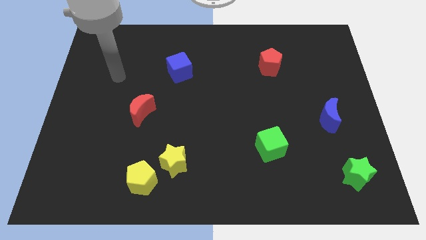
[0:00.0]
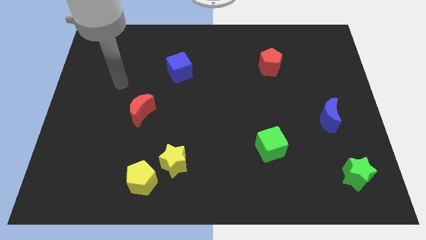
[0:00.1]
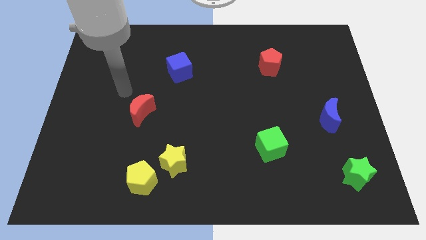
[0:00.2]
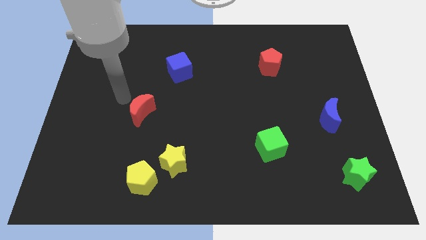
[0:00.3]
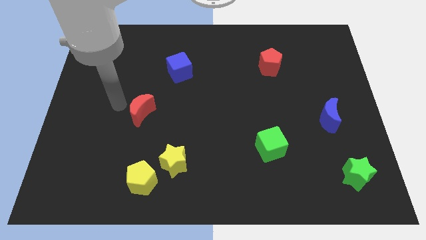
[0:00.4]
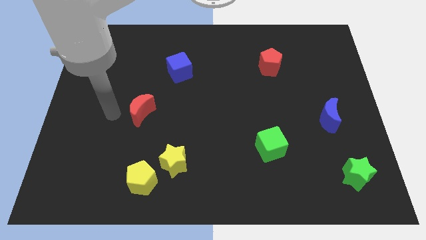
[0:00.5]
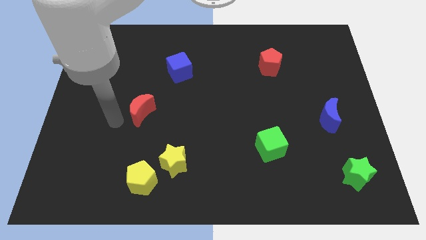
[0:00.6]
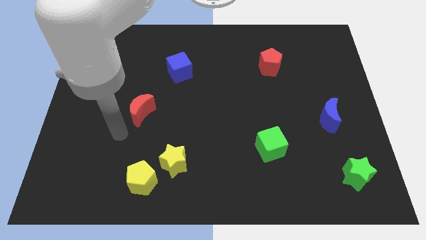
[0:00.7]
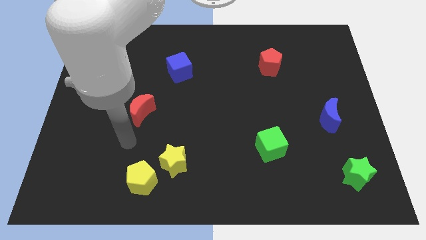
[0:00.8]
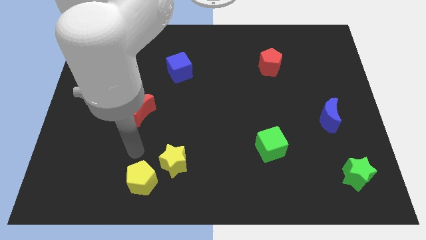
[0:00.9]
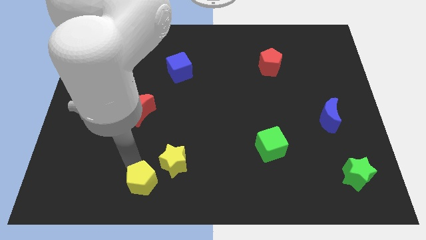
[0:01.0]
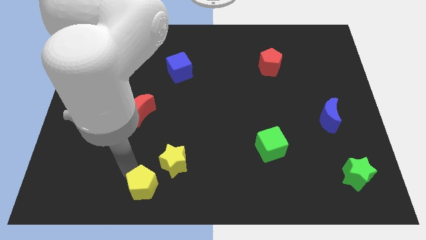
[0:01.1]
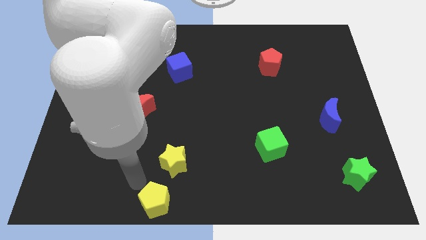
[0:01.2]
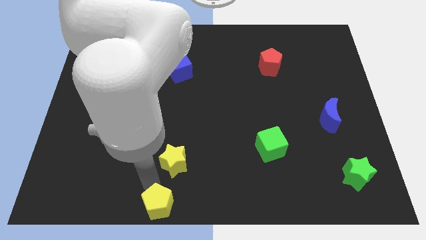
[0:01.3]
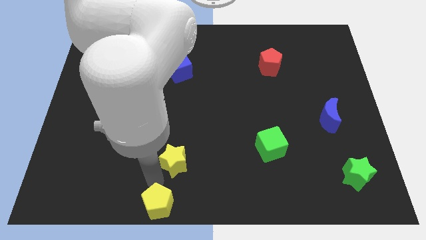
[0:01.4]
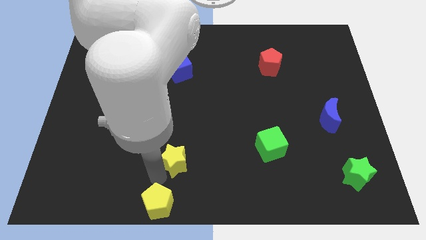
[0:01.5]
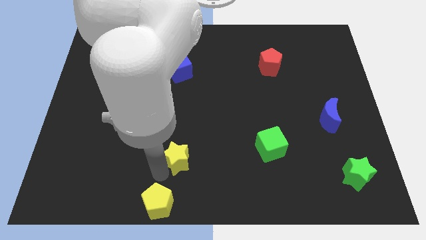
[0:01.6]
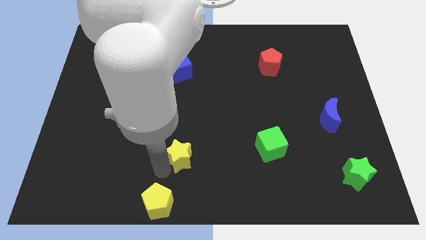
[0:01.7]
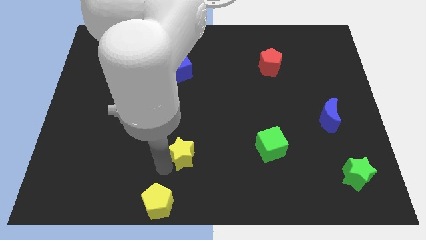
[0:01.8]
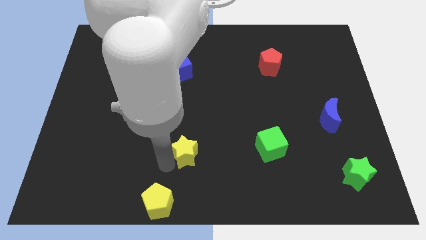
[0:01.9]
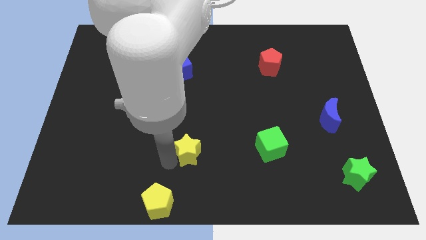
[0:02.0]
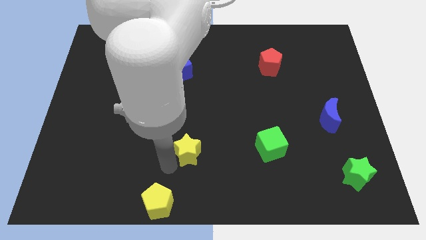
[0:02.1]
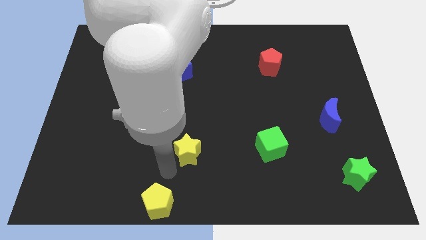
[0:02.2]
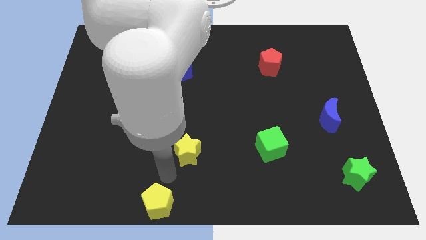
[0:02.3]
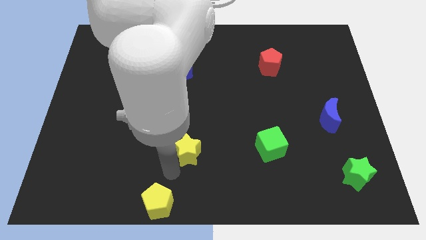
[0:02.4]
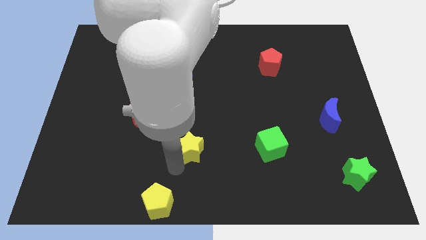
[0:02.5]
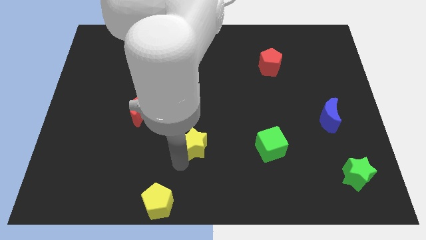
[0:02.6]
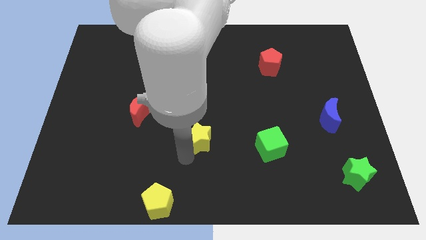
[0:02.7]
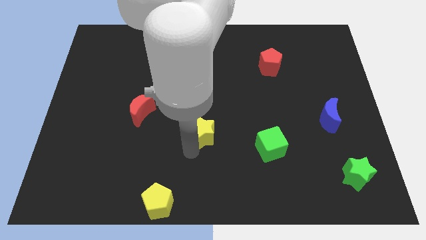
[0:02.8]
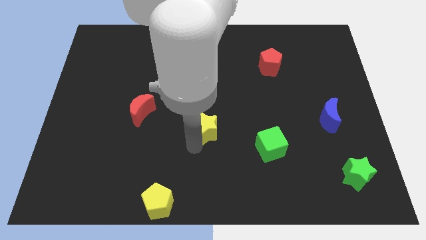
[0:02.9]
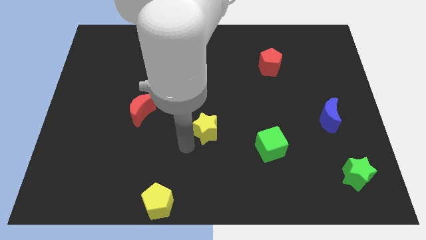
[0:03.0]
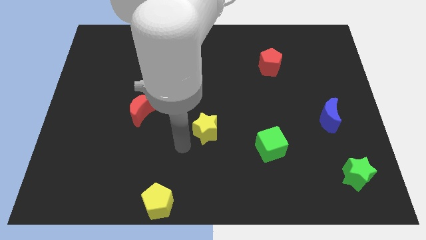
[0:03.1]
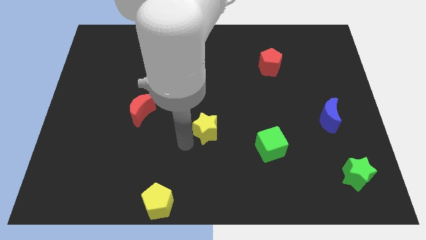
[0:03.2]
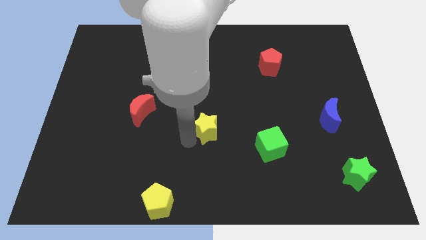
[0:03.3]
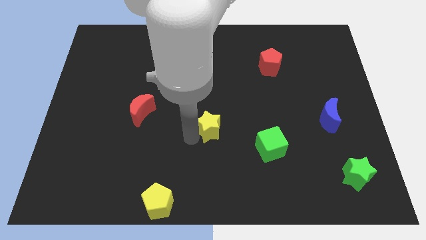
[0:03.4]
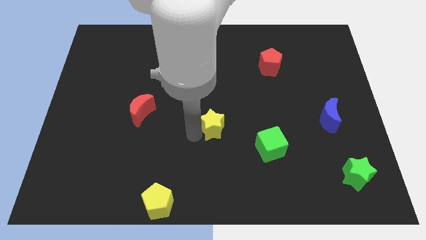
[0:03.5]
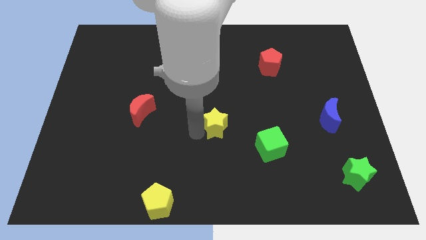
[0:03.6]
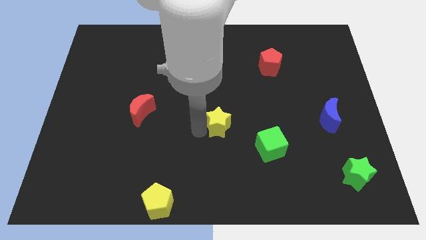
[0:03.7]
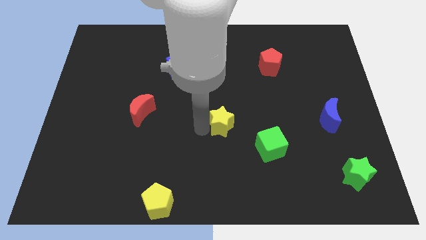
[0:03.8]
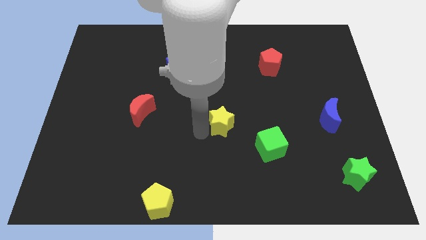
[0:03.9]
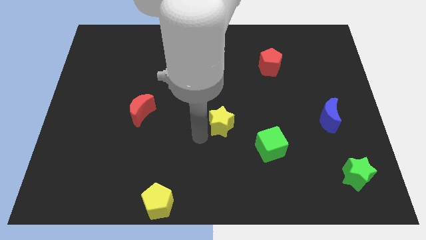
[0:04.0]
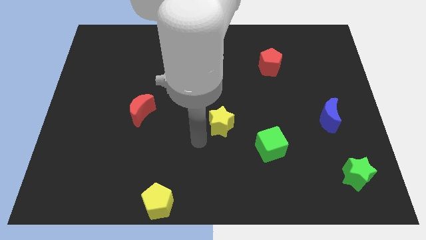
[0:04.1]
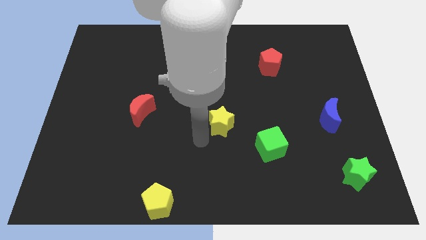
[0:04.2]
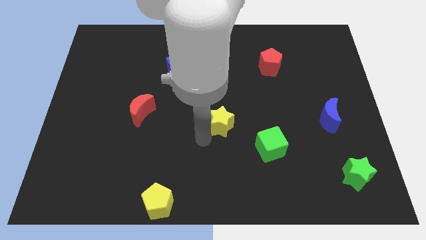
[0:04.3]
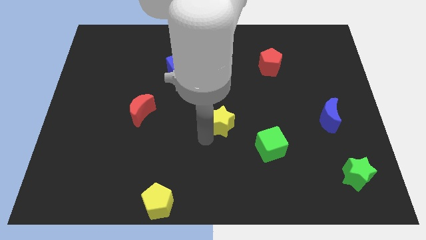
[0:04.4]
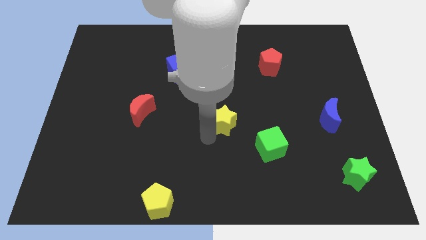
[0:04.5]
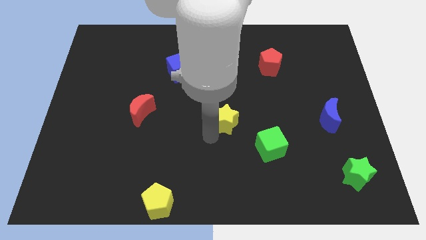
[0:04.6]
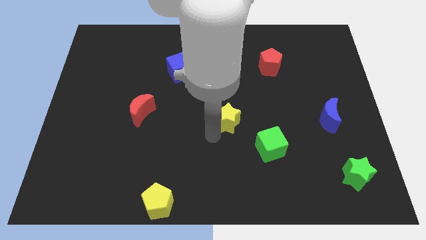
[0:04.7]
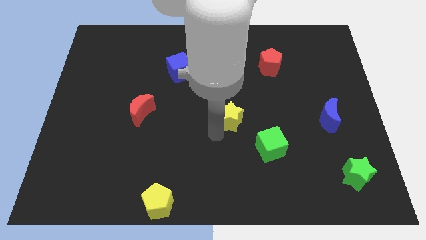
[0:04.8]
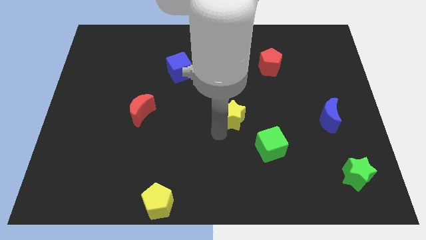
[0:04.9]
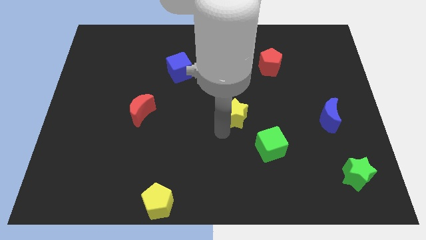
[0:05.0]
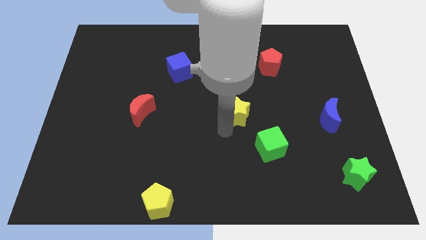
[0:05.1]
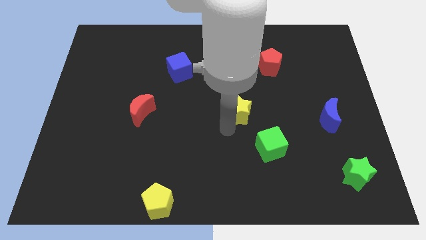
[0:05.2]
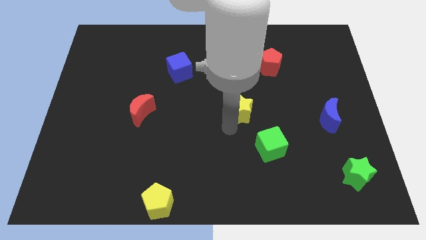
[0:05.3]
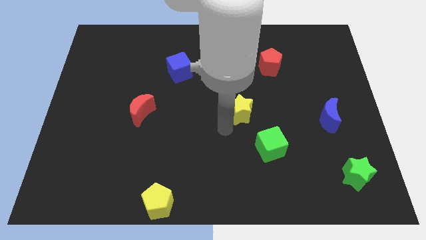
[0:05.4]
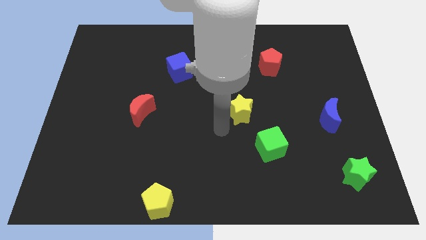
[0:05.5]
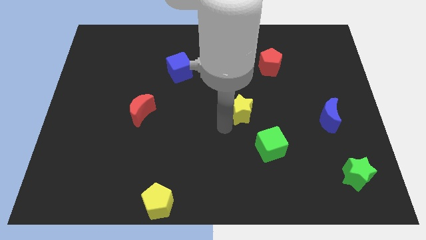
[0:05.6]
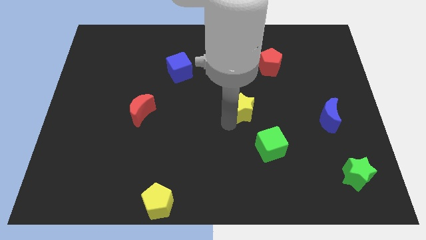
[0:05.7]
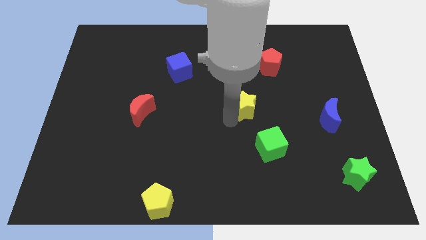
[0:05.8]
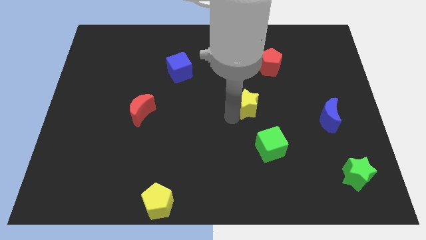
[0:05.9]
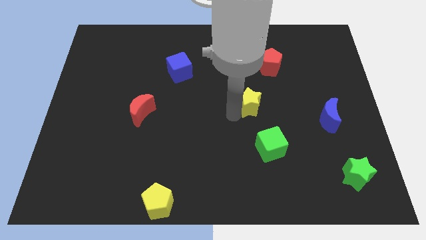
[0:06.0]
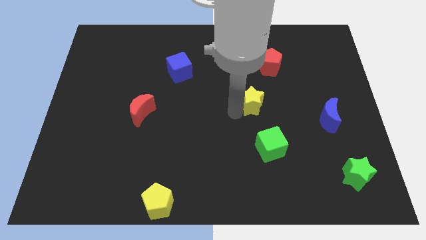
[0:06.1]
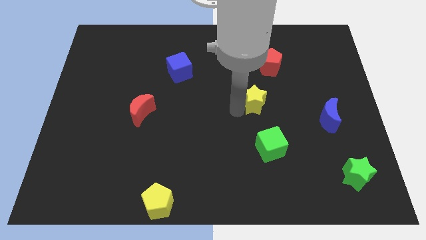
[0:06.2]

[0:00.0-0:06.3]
put the yellow star to the bottom side of the red pentagon

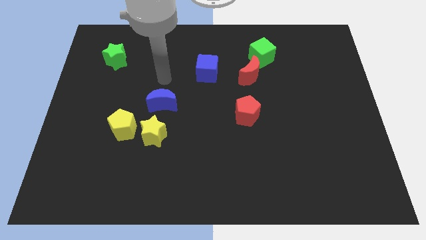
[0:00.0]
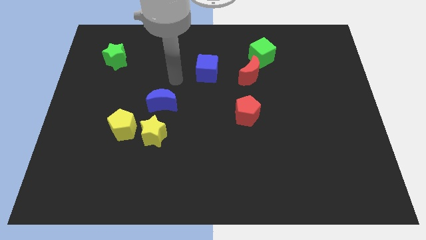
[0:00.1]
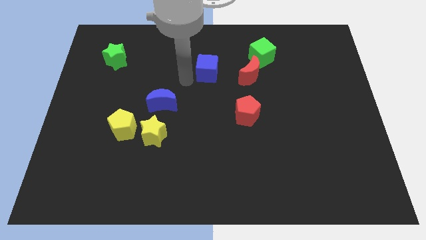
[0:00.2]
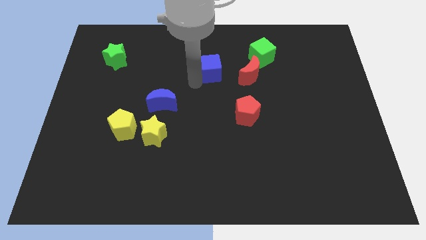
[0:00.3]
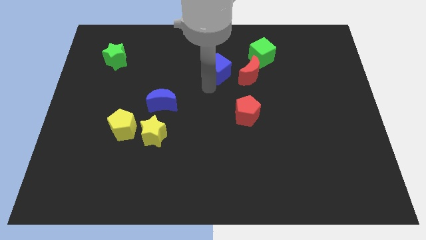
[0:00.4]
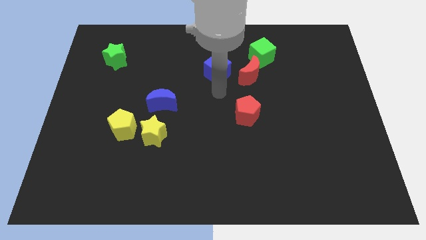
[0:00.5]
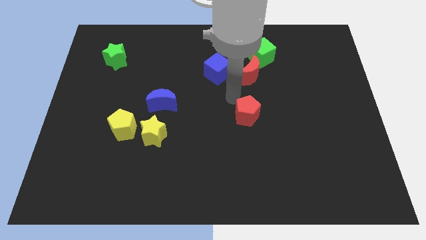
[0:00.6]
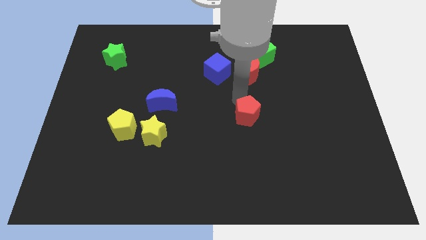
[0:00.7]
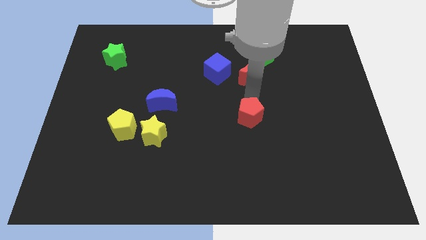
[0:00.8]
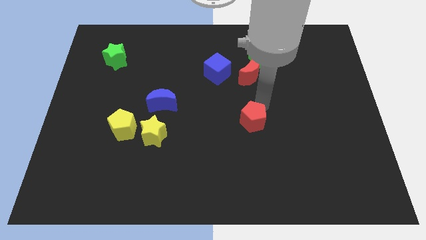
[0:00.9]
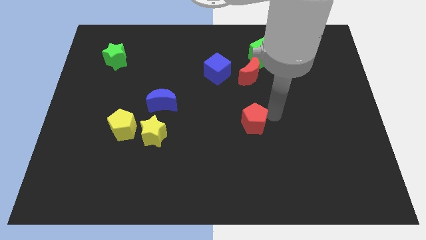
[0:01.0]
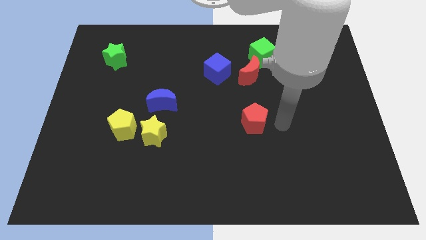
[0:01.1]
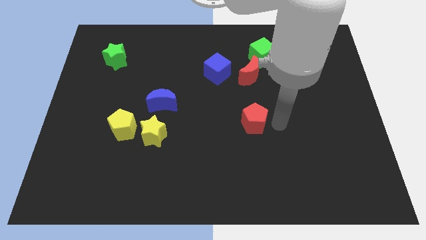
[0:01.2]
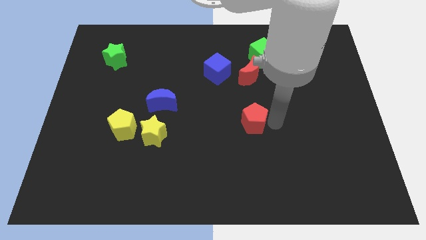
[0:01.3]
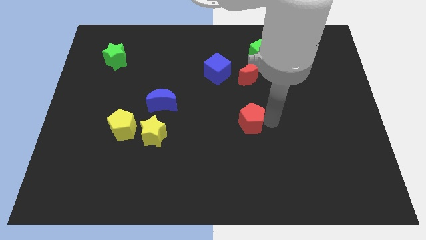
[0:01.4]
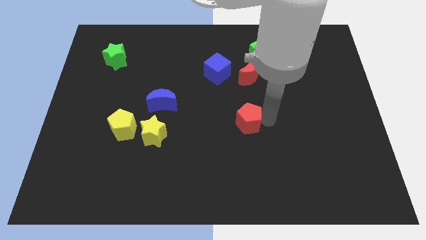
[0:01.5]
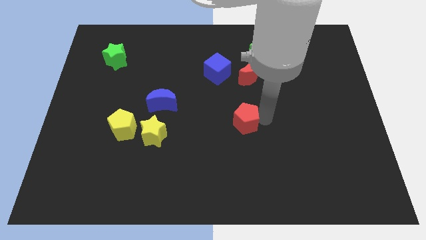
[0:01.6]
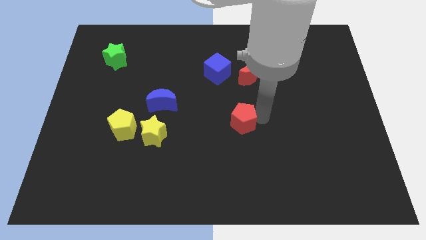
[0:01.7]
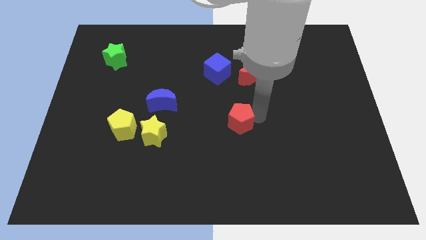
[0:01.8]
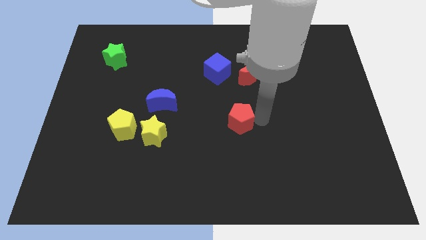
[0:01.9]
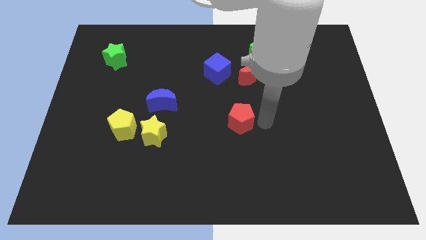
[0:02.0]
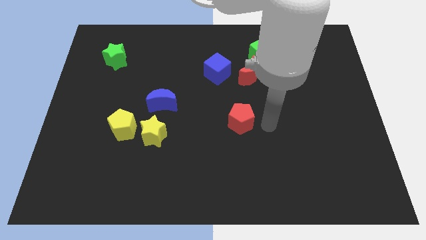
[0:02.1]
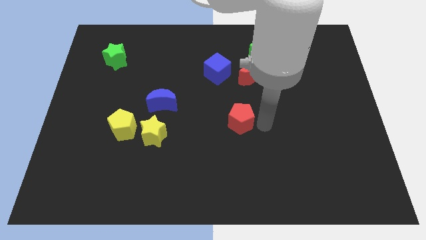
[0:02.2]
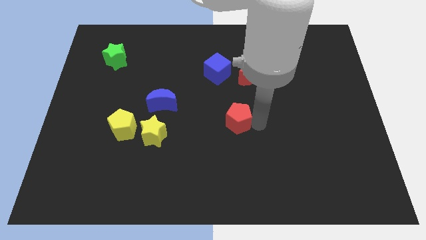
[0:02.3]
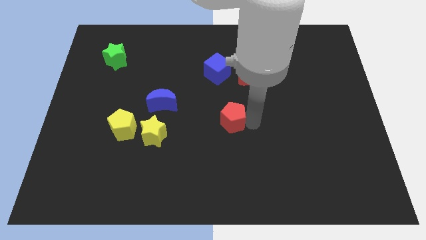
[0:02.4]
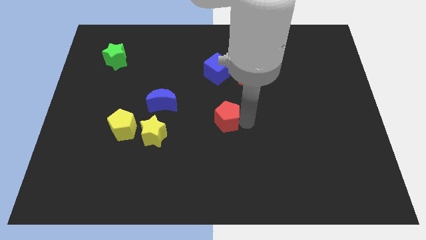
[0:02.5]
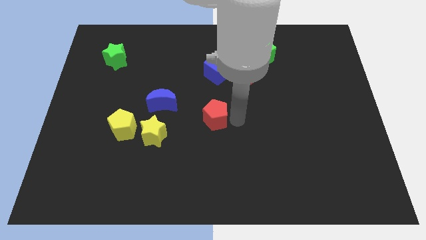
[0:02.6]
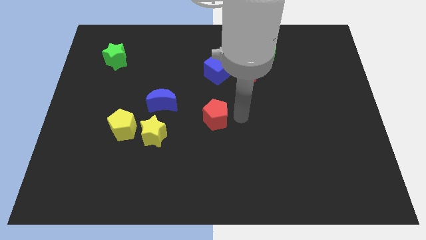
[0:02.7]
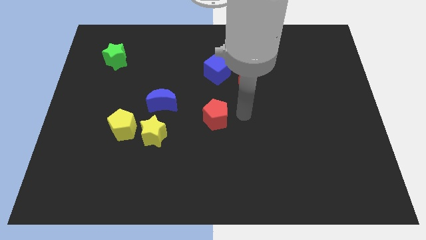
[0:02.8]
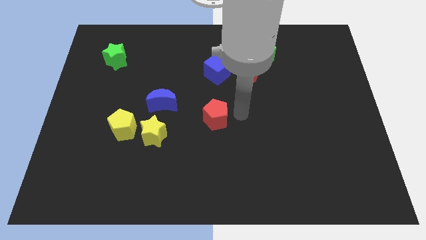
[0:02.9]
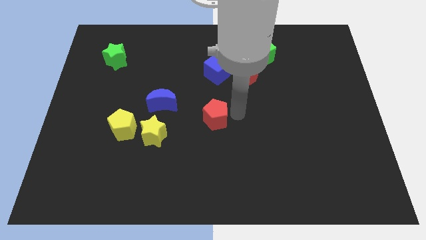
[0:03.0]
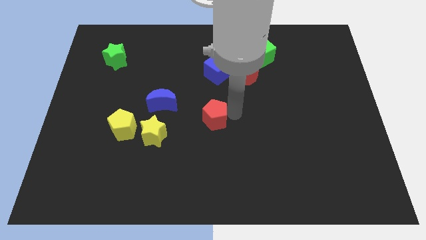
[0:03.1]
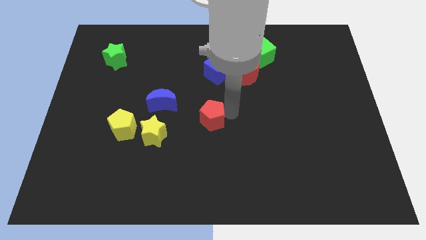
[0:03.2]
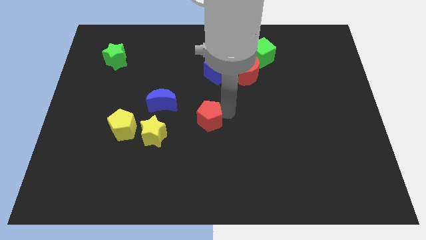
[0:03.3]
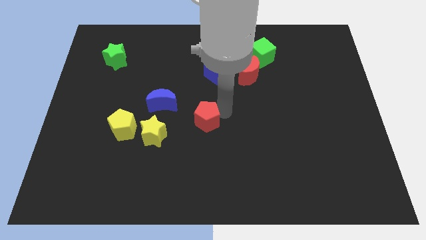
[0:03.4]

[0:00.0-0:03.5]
push the red pentagon to the bottom right side of the blue moon
